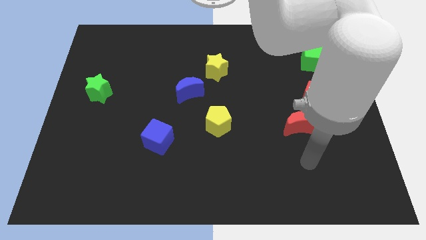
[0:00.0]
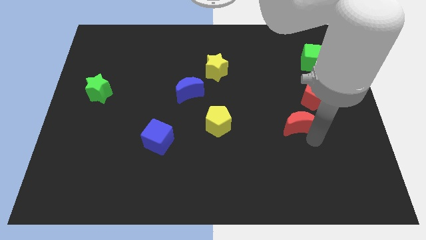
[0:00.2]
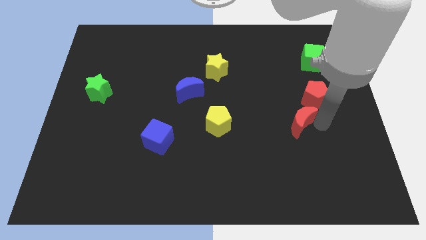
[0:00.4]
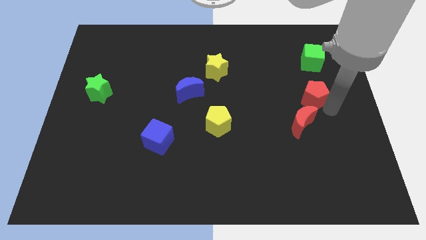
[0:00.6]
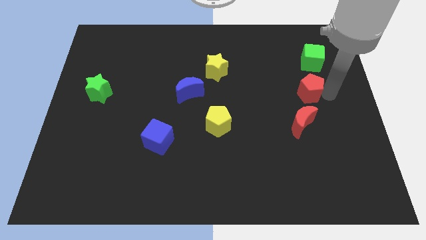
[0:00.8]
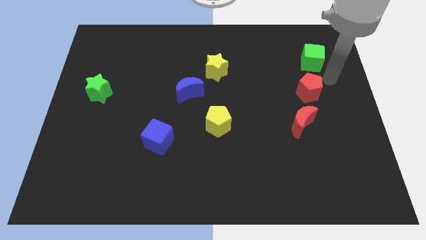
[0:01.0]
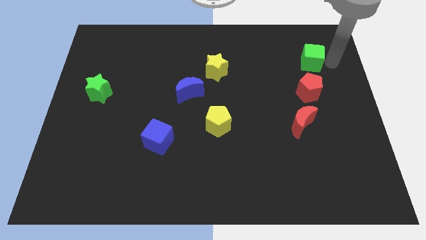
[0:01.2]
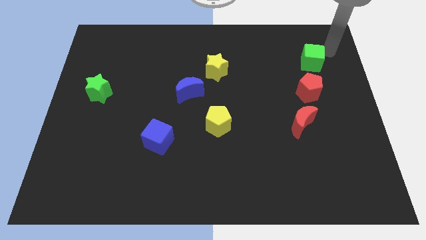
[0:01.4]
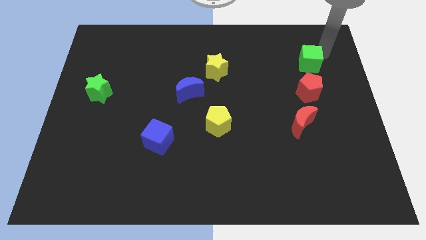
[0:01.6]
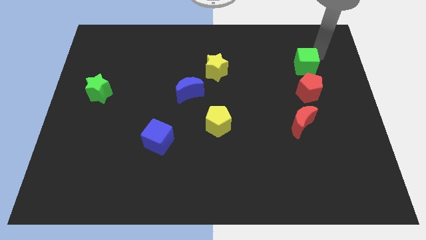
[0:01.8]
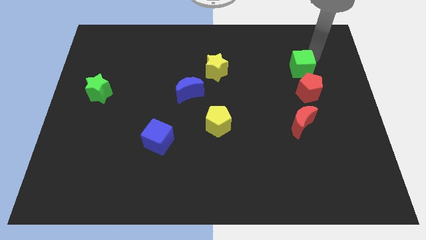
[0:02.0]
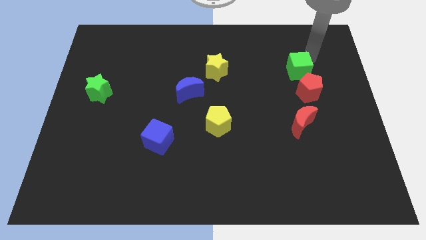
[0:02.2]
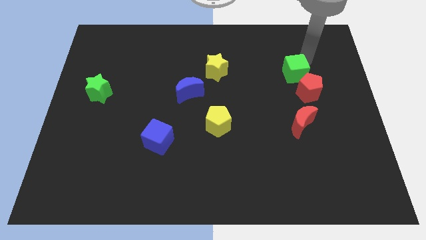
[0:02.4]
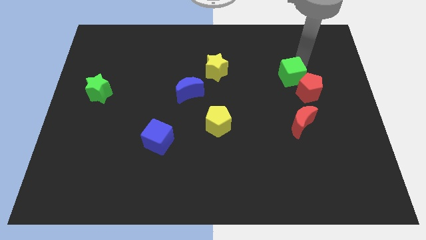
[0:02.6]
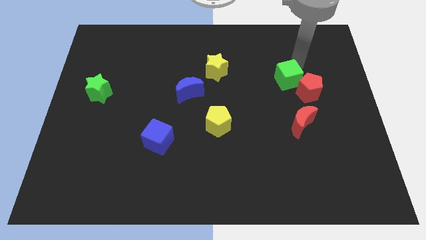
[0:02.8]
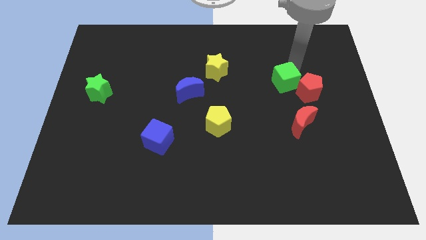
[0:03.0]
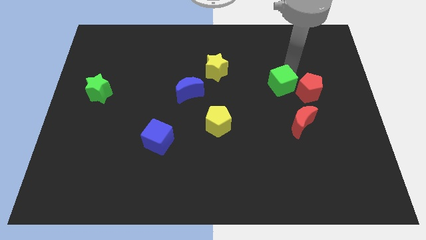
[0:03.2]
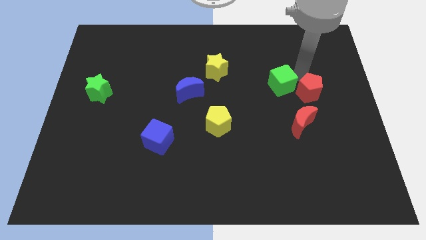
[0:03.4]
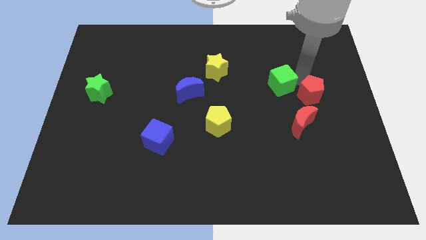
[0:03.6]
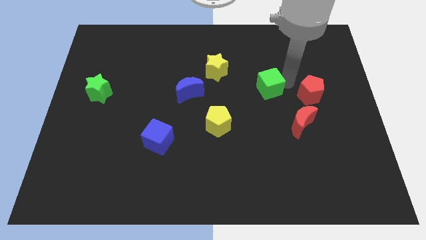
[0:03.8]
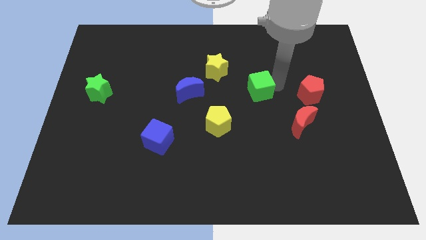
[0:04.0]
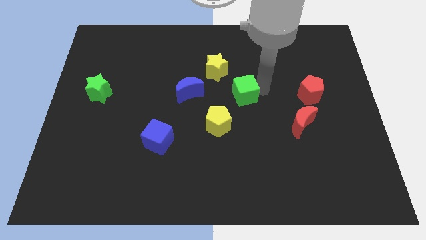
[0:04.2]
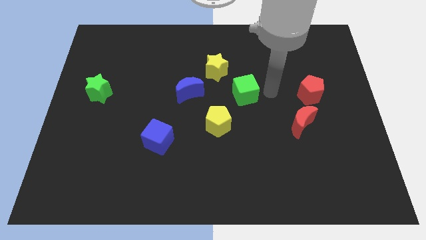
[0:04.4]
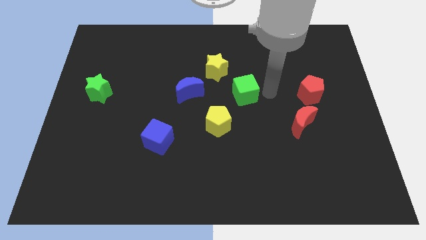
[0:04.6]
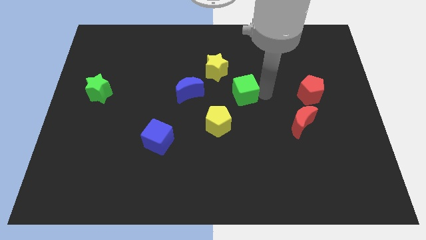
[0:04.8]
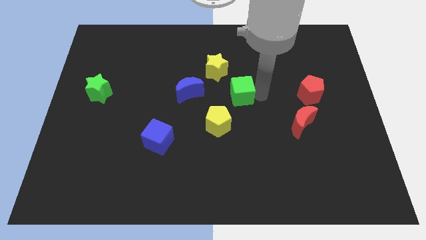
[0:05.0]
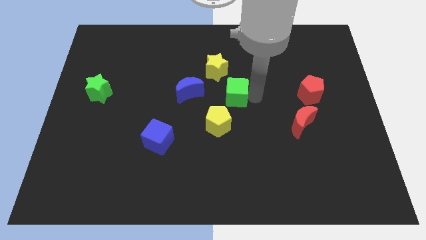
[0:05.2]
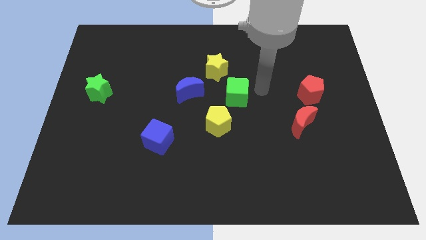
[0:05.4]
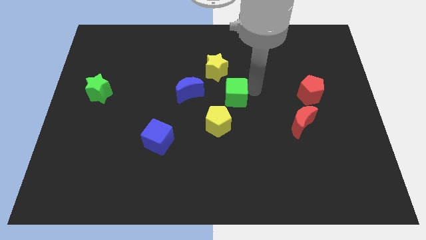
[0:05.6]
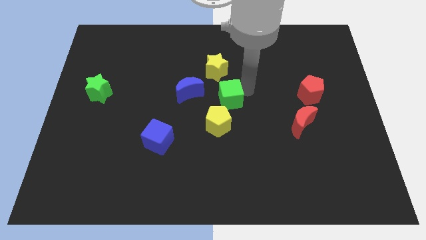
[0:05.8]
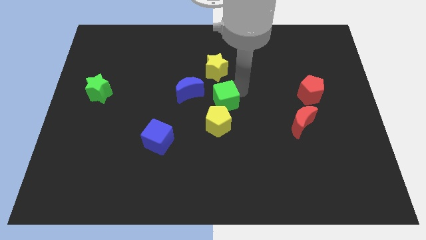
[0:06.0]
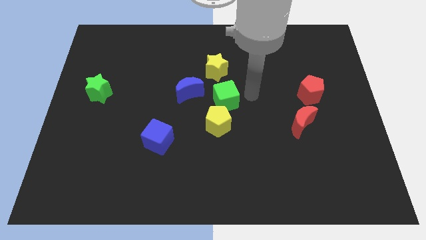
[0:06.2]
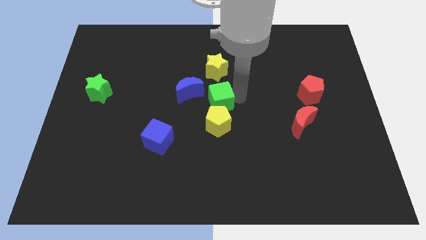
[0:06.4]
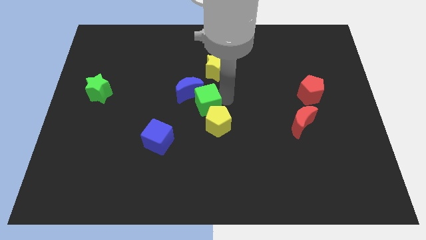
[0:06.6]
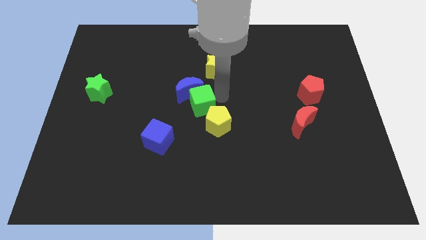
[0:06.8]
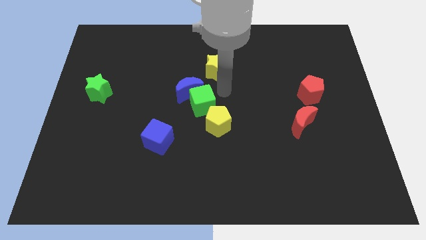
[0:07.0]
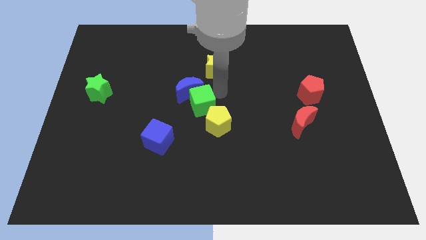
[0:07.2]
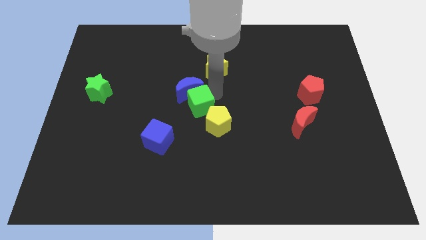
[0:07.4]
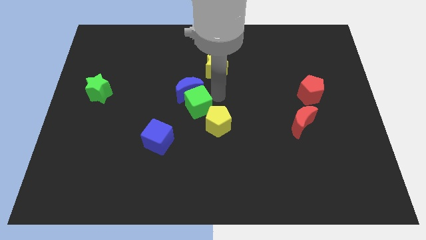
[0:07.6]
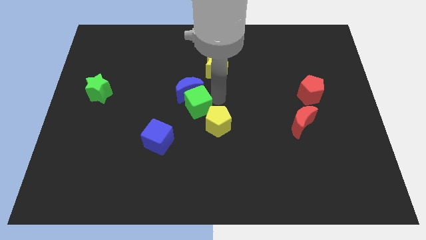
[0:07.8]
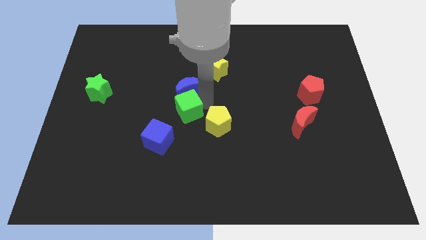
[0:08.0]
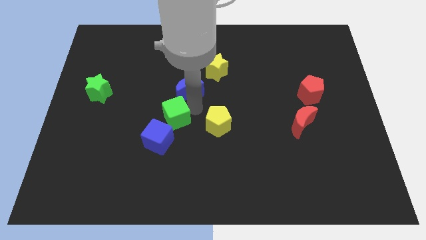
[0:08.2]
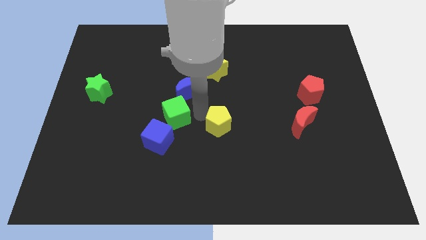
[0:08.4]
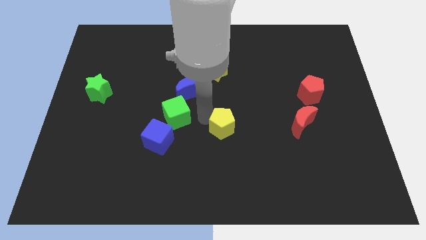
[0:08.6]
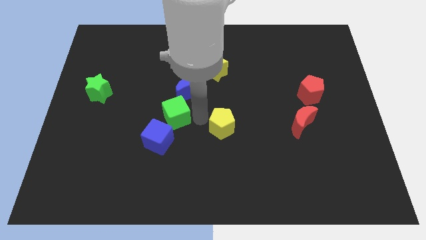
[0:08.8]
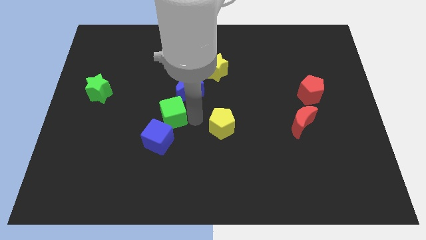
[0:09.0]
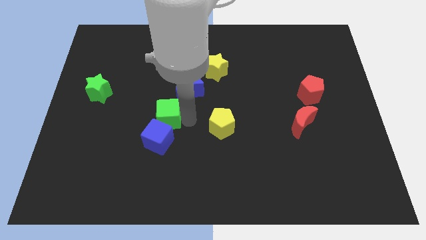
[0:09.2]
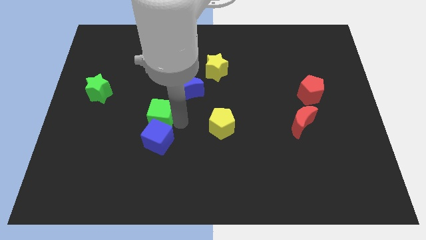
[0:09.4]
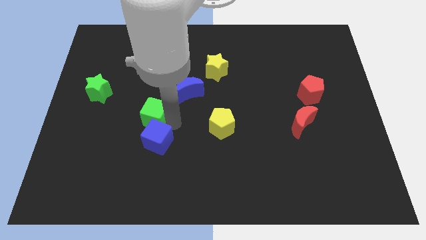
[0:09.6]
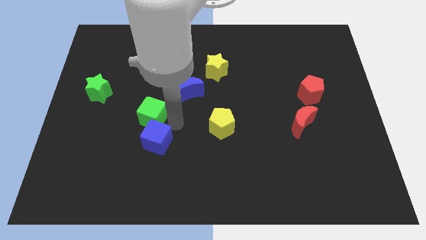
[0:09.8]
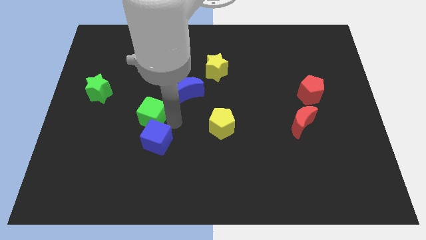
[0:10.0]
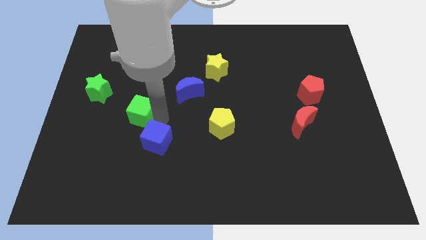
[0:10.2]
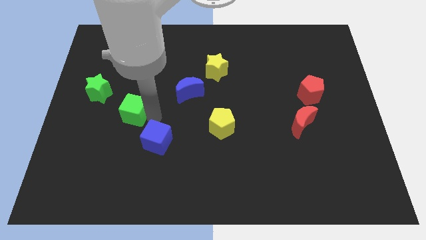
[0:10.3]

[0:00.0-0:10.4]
move the green cube diagonally down and to the right of the green star

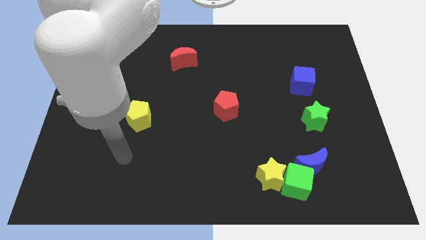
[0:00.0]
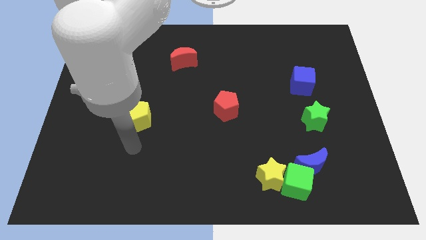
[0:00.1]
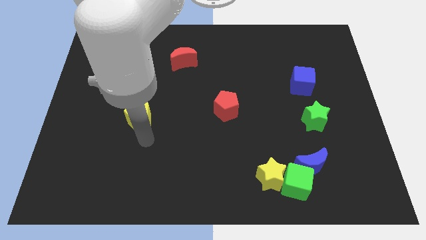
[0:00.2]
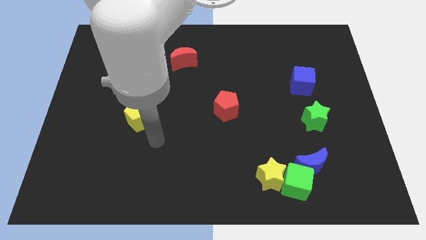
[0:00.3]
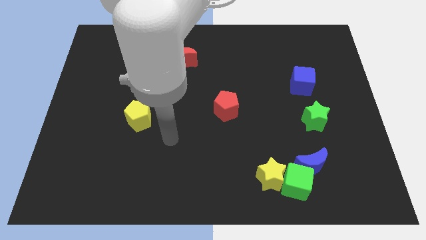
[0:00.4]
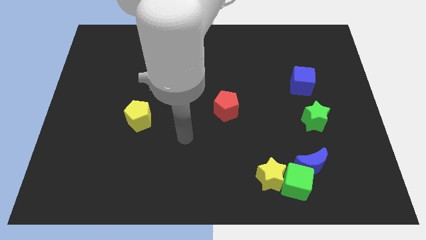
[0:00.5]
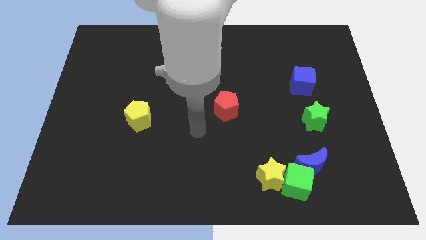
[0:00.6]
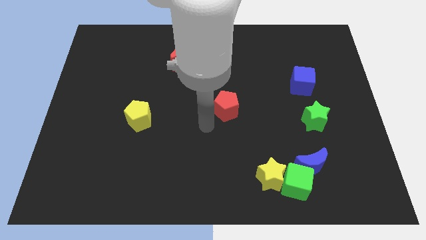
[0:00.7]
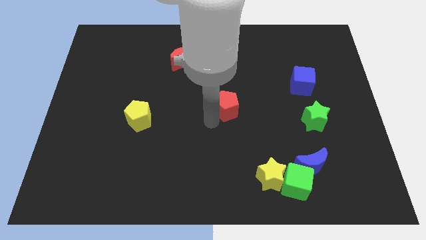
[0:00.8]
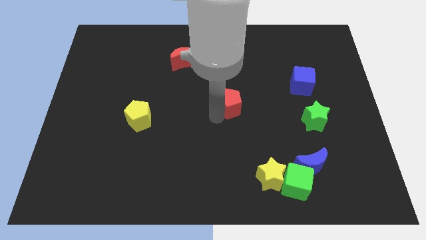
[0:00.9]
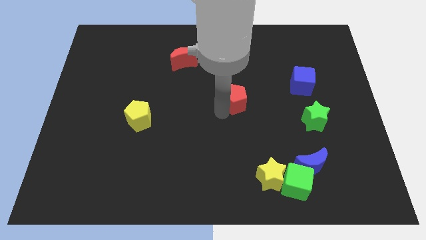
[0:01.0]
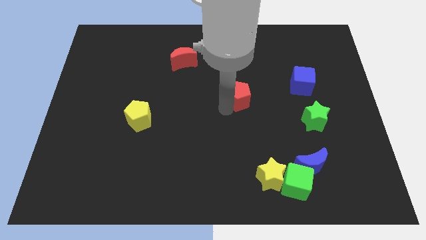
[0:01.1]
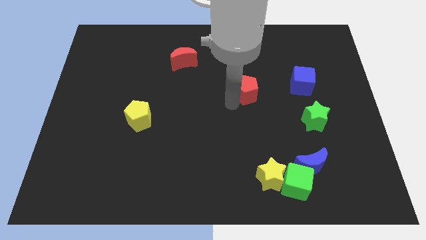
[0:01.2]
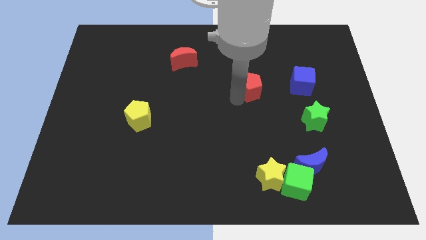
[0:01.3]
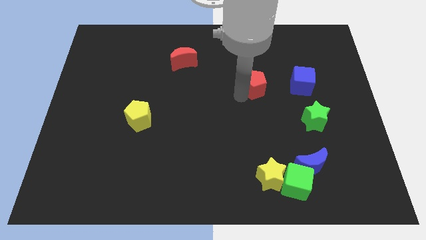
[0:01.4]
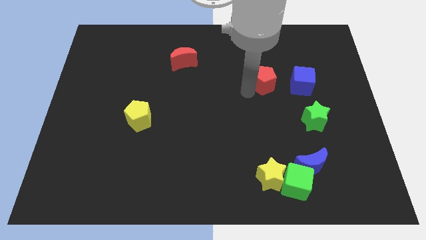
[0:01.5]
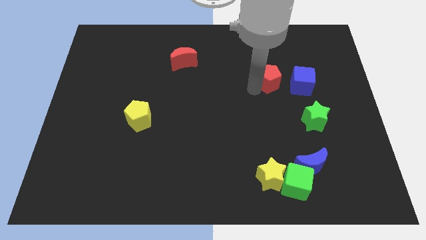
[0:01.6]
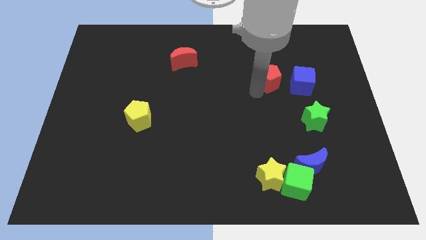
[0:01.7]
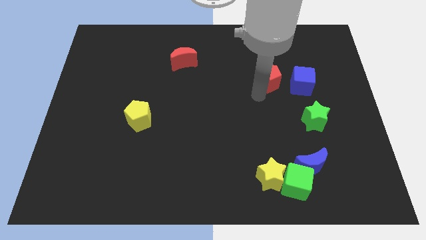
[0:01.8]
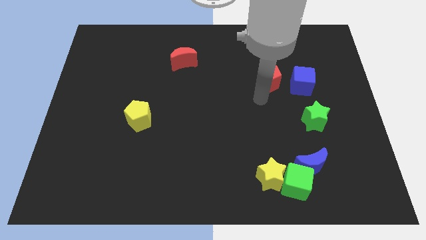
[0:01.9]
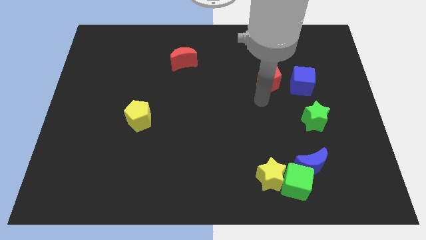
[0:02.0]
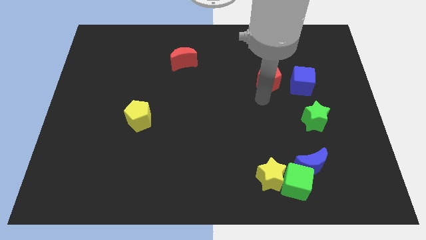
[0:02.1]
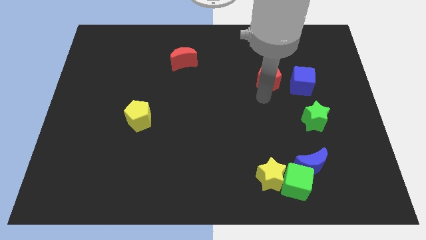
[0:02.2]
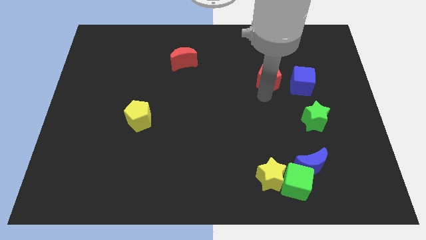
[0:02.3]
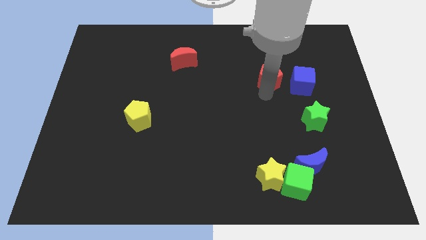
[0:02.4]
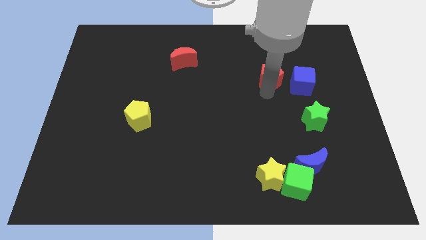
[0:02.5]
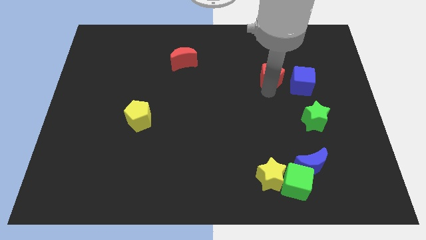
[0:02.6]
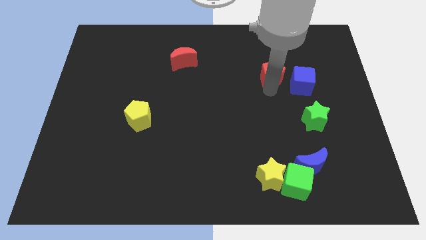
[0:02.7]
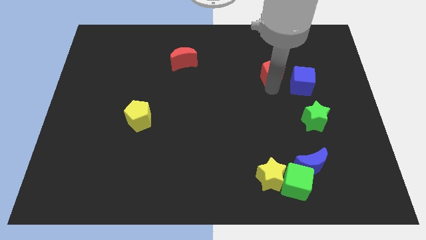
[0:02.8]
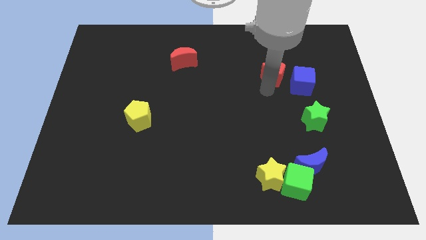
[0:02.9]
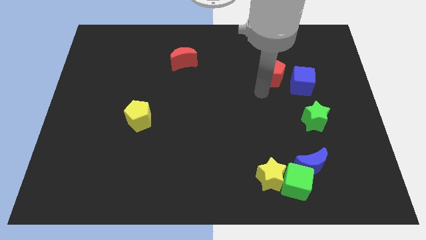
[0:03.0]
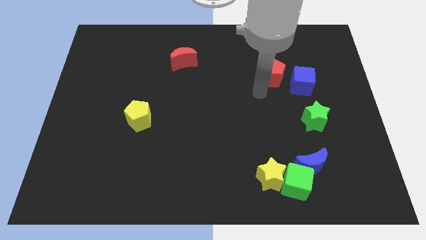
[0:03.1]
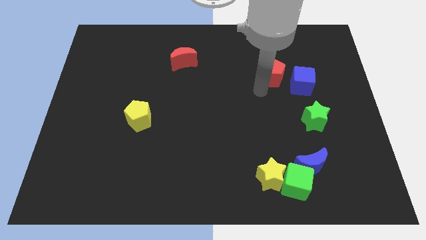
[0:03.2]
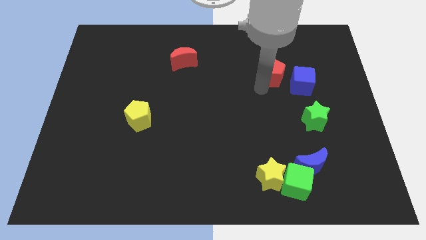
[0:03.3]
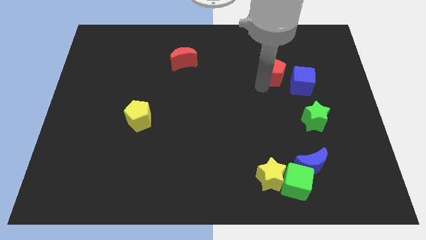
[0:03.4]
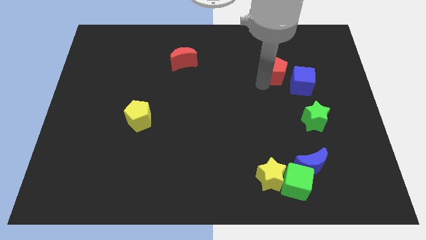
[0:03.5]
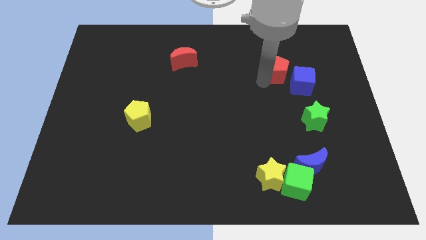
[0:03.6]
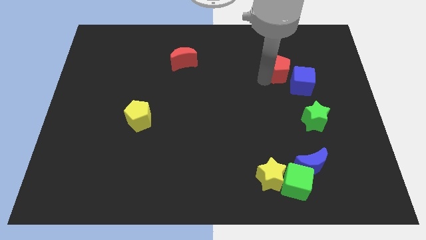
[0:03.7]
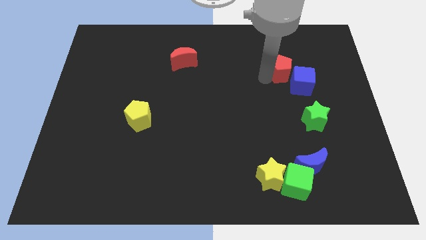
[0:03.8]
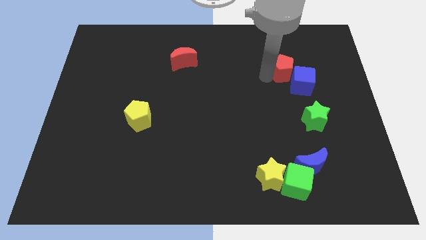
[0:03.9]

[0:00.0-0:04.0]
slide the red pentagon to the top of the blue cube
